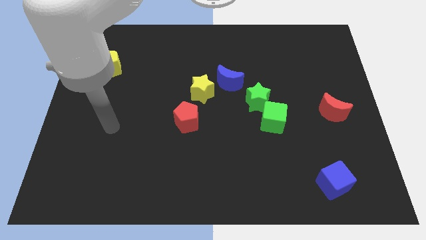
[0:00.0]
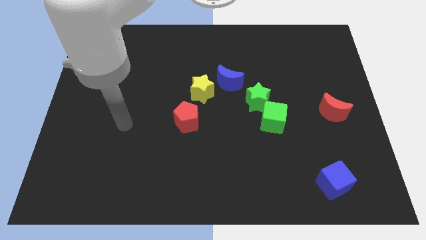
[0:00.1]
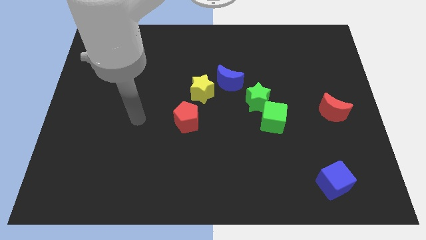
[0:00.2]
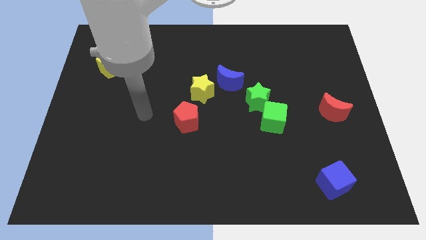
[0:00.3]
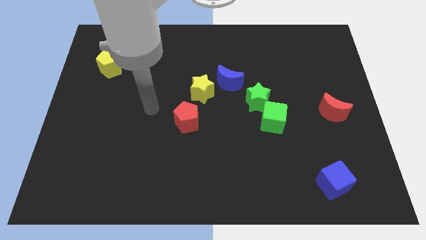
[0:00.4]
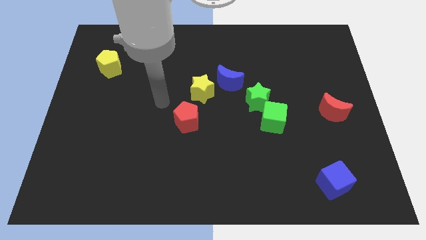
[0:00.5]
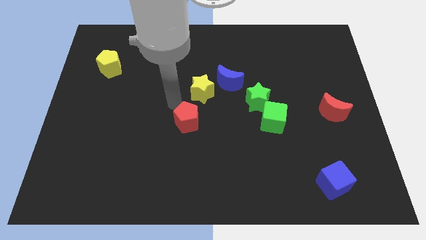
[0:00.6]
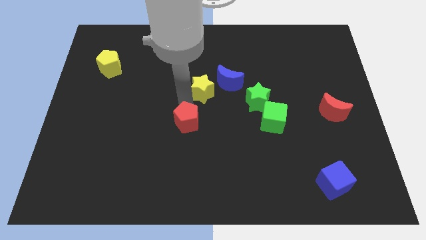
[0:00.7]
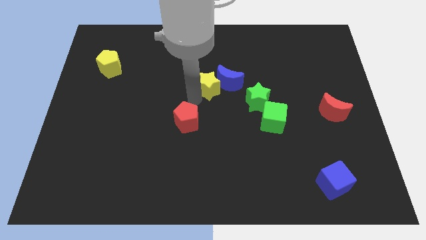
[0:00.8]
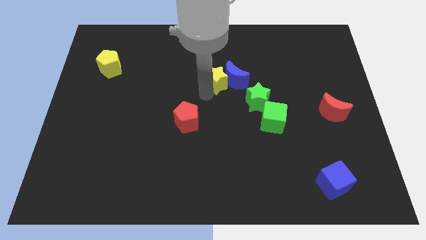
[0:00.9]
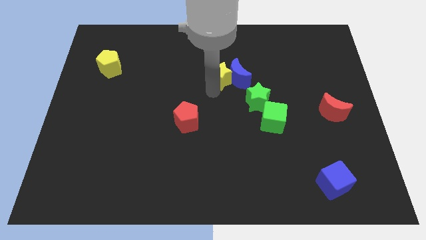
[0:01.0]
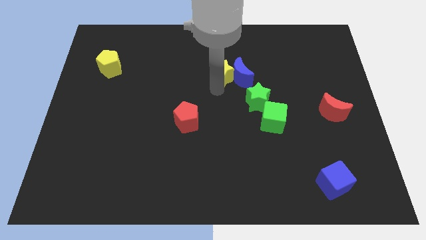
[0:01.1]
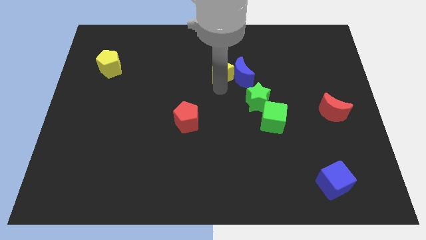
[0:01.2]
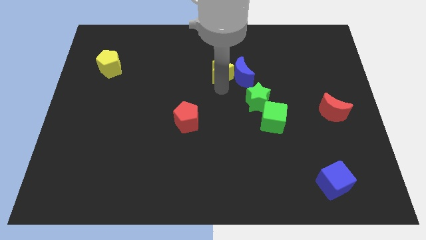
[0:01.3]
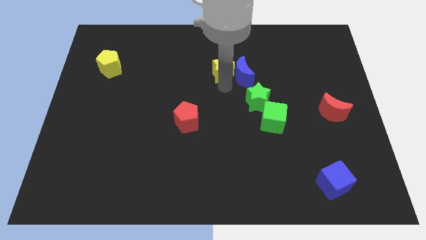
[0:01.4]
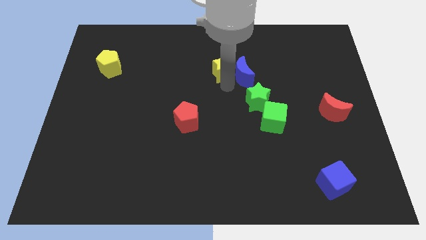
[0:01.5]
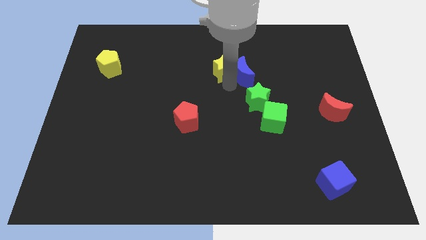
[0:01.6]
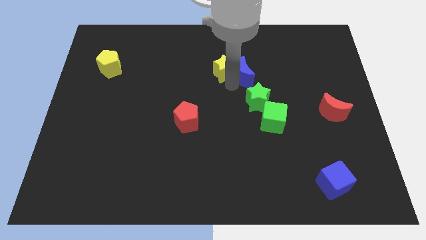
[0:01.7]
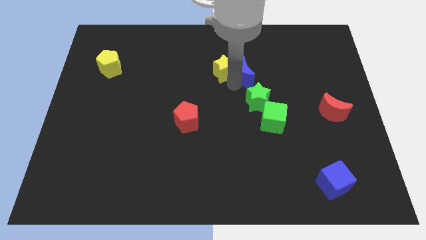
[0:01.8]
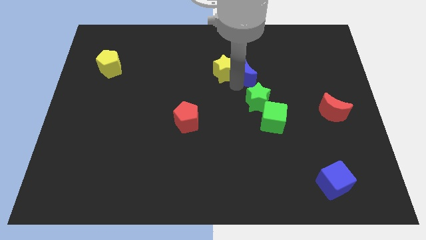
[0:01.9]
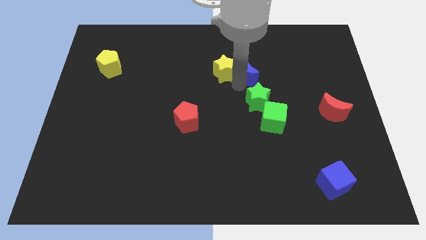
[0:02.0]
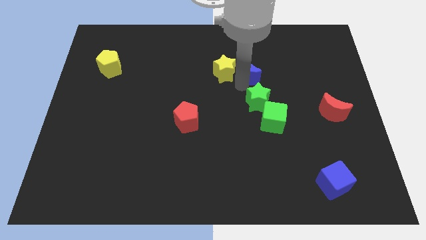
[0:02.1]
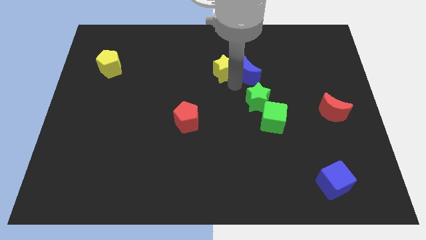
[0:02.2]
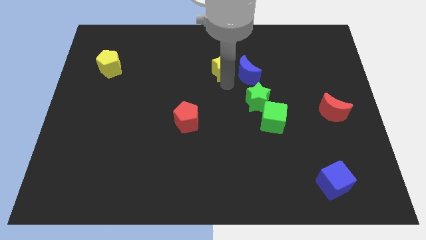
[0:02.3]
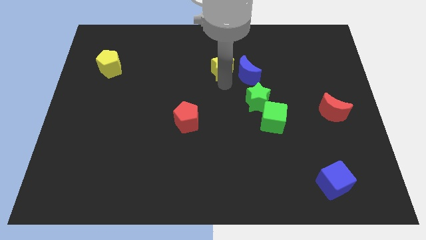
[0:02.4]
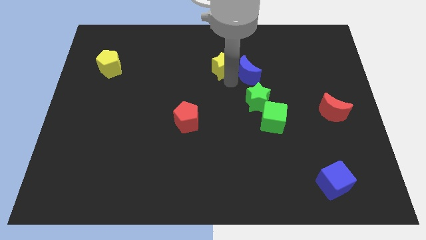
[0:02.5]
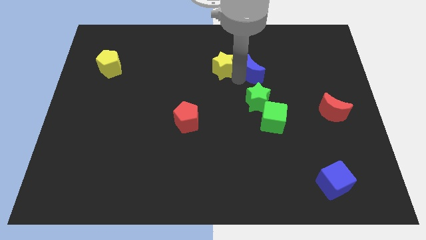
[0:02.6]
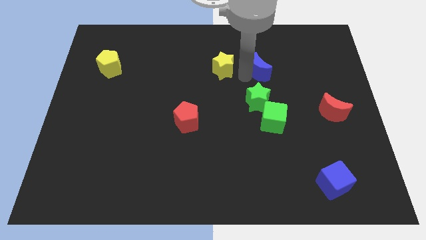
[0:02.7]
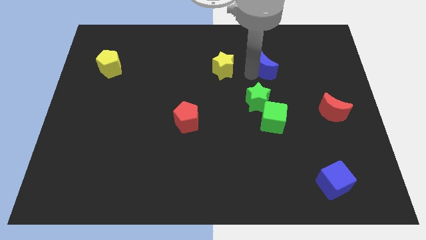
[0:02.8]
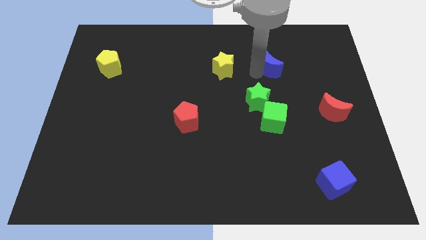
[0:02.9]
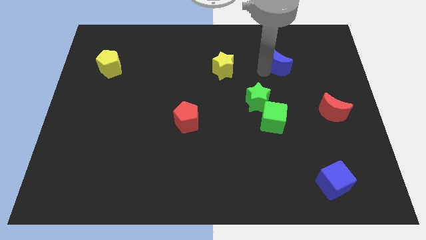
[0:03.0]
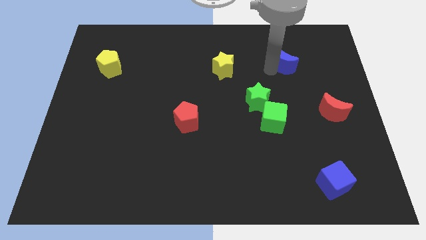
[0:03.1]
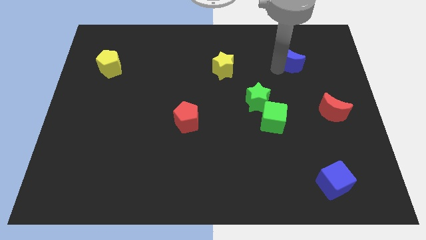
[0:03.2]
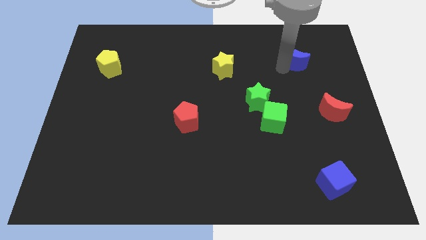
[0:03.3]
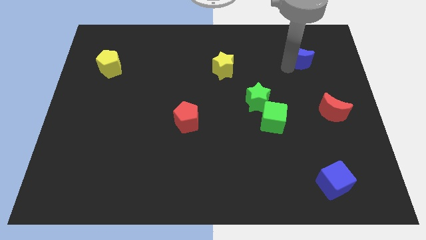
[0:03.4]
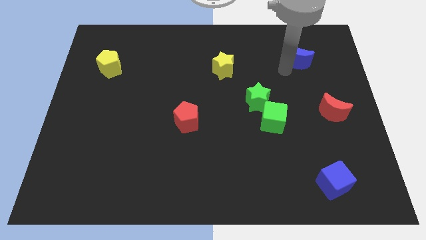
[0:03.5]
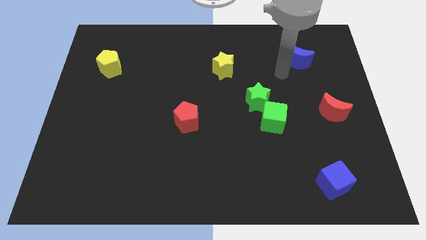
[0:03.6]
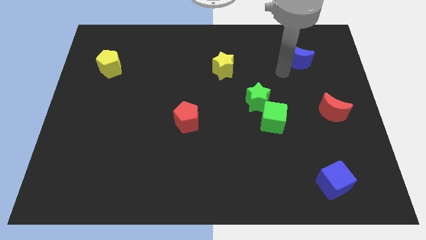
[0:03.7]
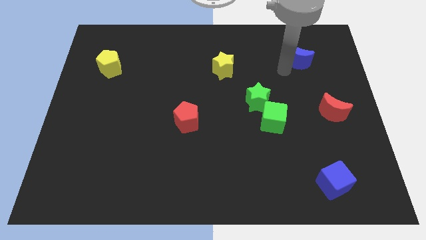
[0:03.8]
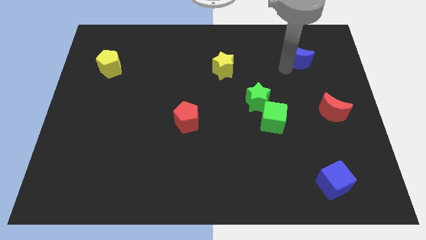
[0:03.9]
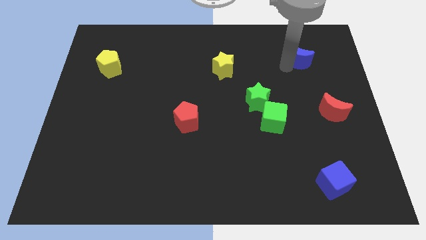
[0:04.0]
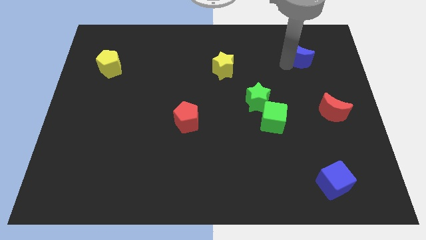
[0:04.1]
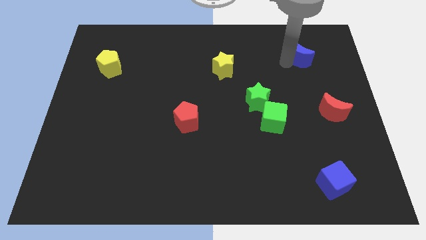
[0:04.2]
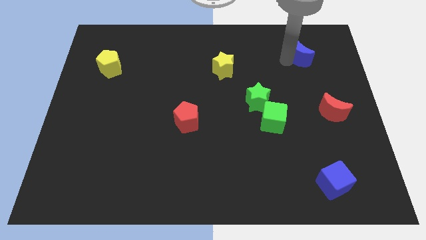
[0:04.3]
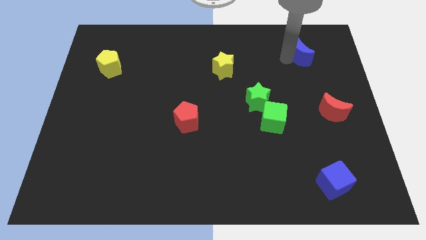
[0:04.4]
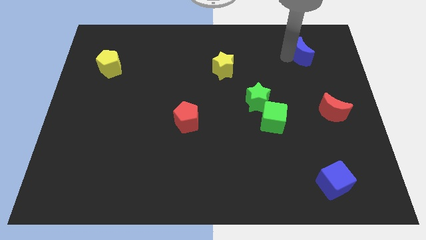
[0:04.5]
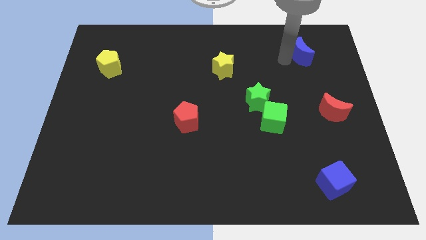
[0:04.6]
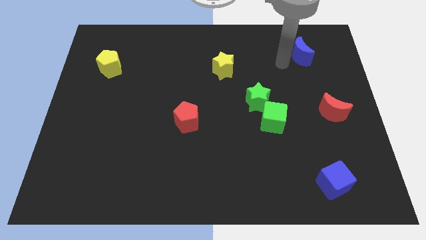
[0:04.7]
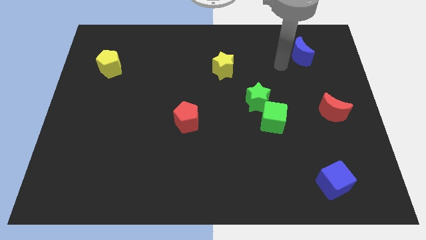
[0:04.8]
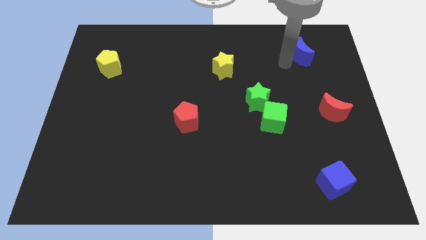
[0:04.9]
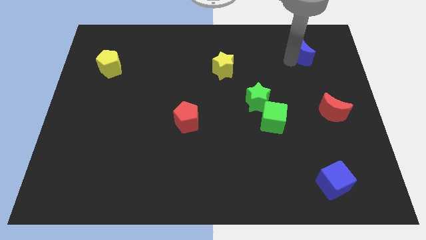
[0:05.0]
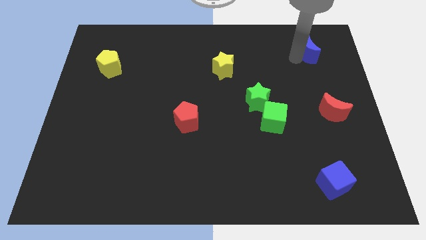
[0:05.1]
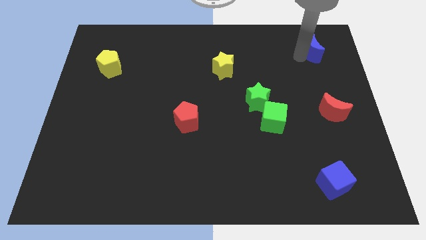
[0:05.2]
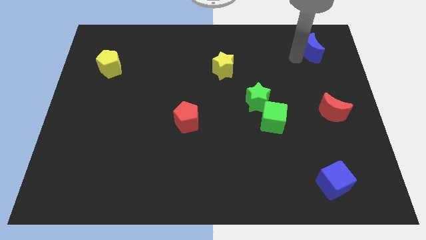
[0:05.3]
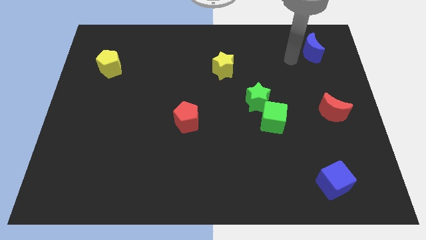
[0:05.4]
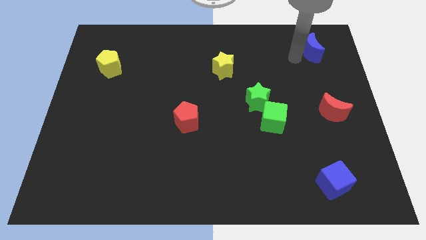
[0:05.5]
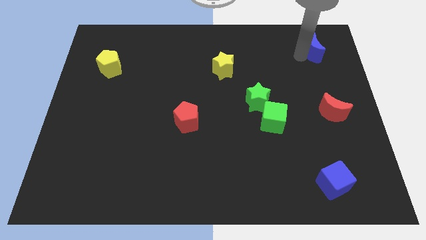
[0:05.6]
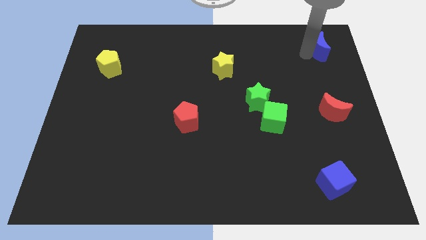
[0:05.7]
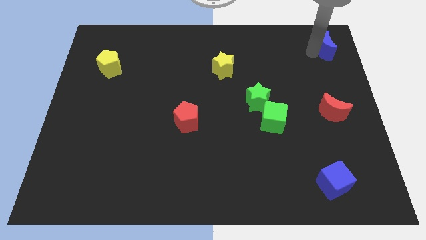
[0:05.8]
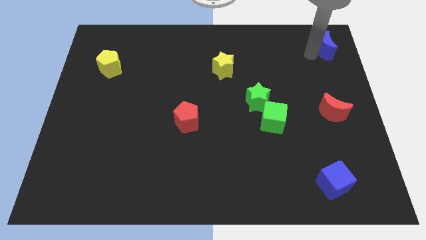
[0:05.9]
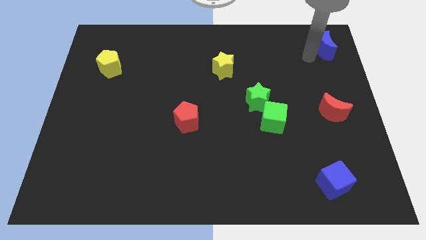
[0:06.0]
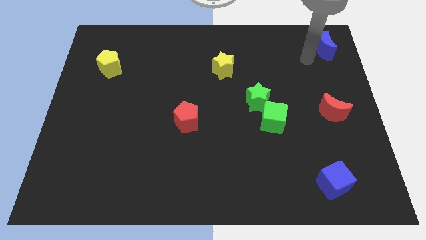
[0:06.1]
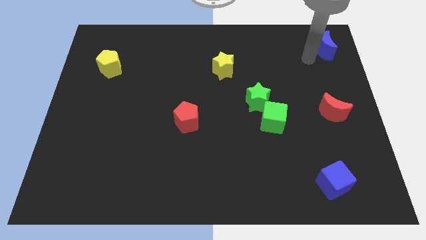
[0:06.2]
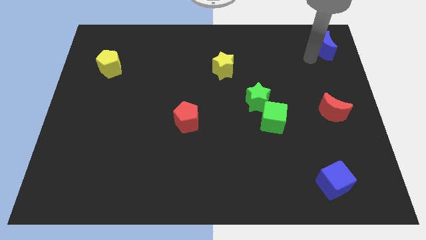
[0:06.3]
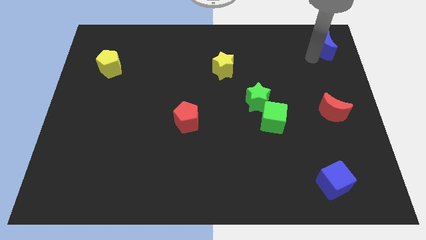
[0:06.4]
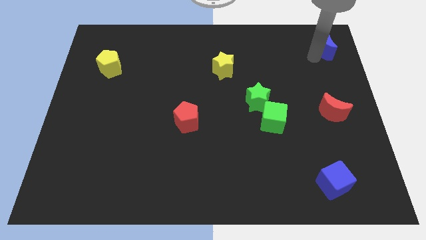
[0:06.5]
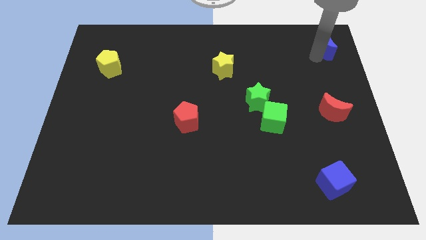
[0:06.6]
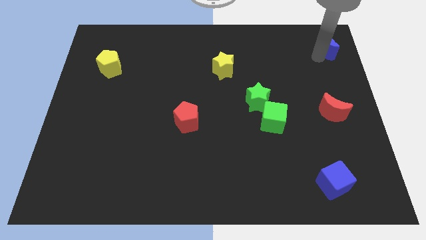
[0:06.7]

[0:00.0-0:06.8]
slide the blue moon to the top right

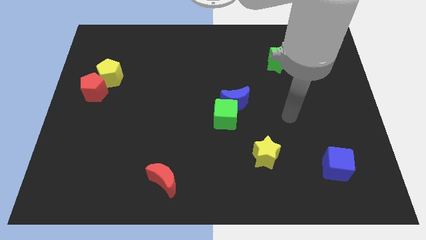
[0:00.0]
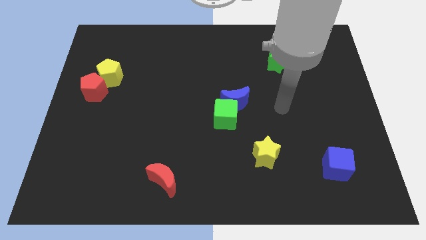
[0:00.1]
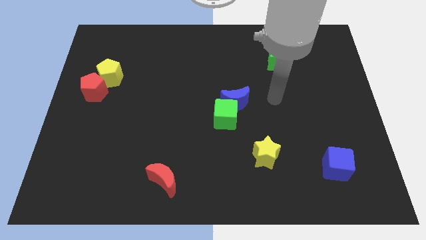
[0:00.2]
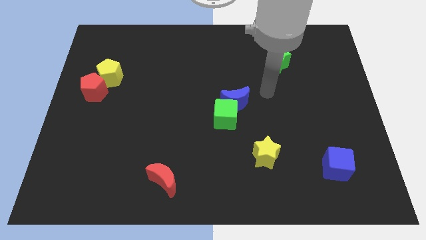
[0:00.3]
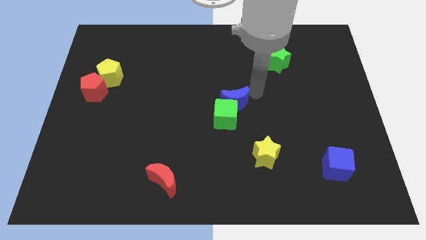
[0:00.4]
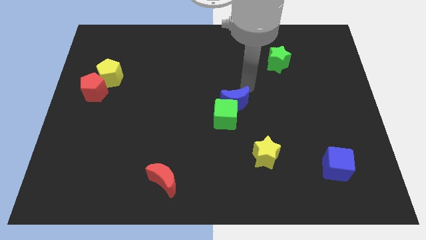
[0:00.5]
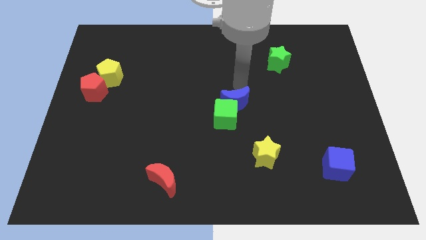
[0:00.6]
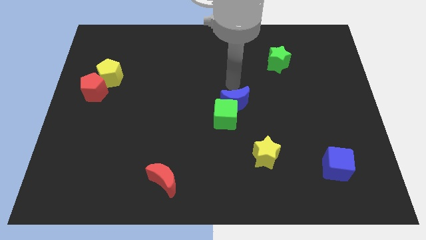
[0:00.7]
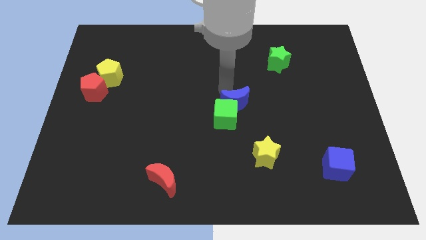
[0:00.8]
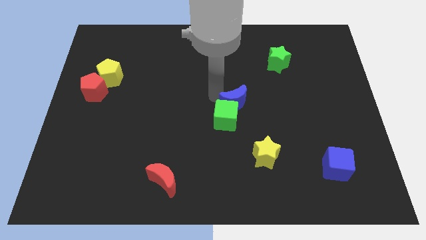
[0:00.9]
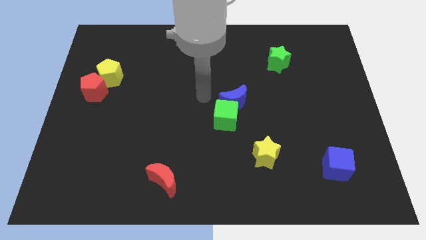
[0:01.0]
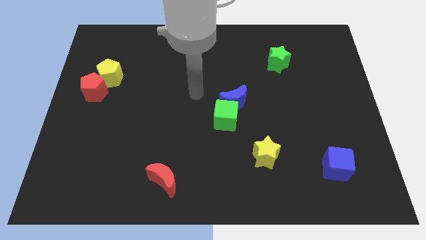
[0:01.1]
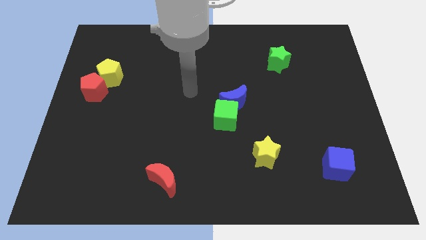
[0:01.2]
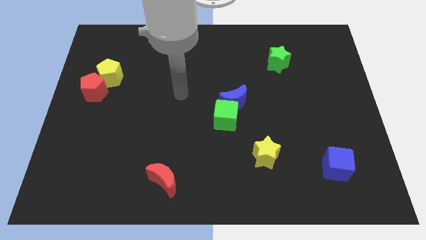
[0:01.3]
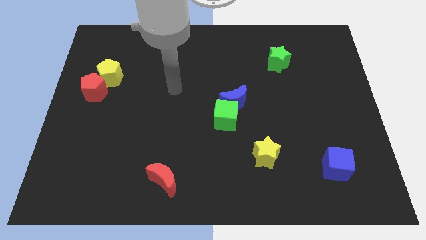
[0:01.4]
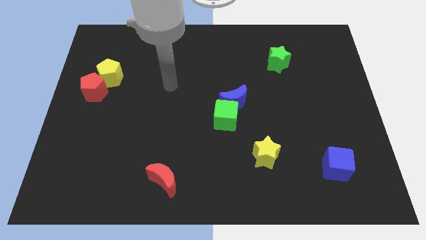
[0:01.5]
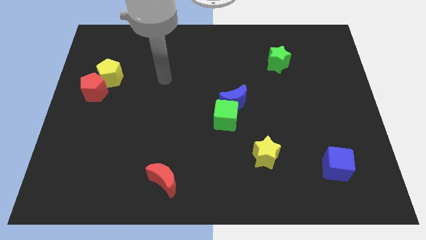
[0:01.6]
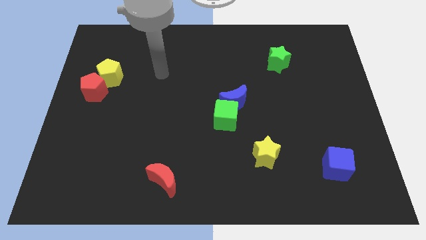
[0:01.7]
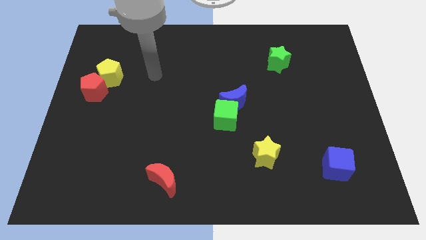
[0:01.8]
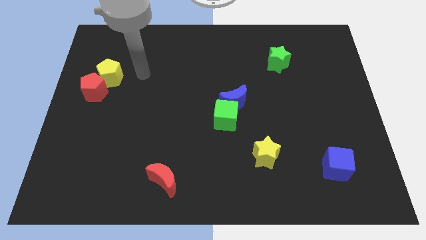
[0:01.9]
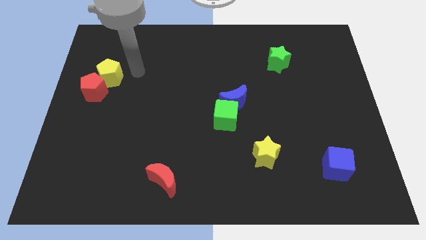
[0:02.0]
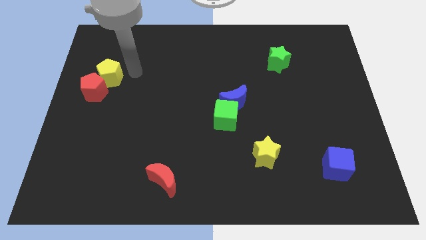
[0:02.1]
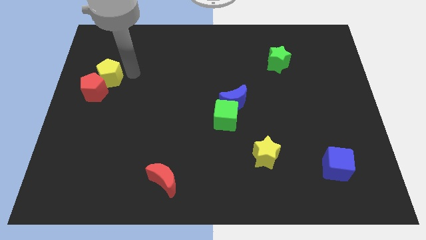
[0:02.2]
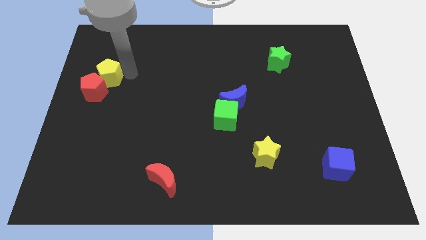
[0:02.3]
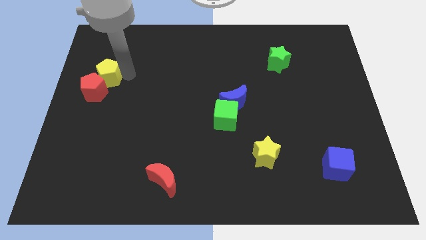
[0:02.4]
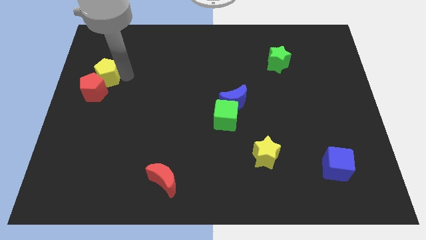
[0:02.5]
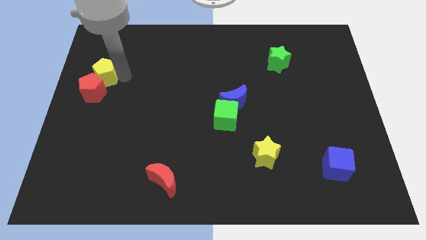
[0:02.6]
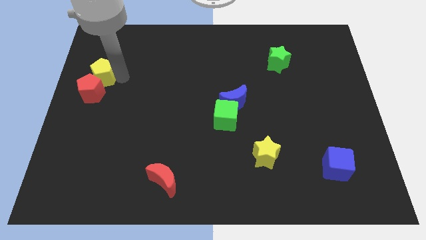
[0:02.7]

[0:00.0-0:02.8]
push the yellow pentagon to the center left
